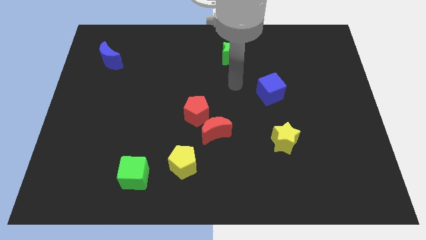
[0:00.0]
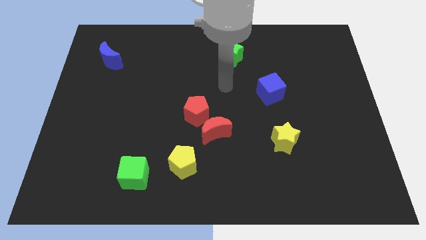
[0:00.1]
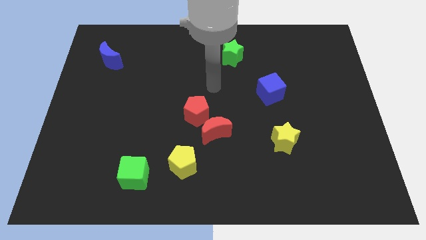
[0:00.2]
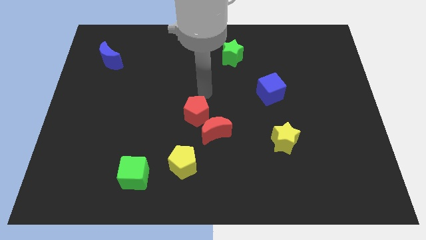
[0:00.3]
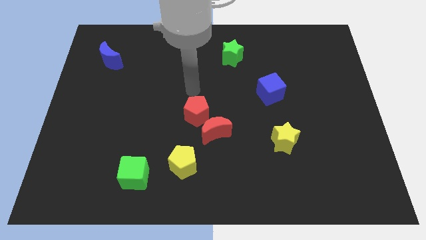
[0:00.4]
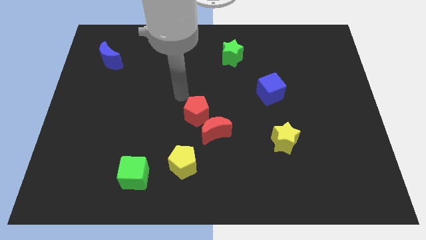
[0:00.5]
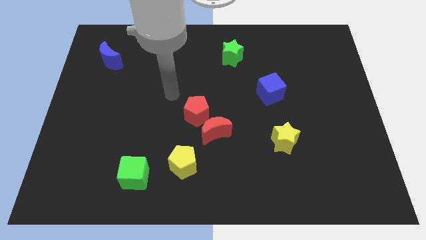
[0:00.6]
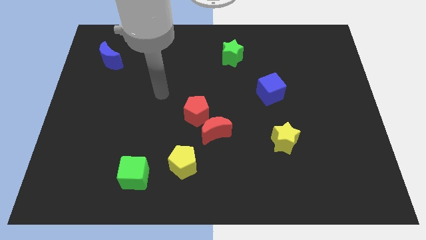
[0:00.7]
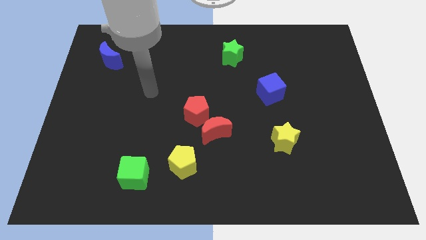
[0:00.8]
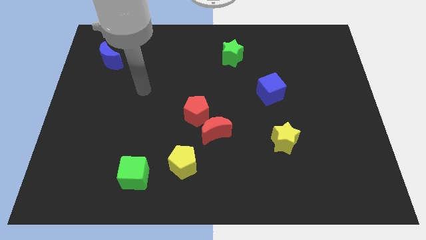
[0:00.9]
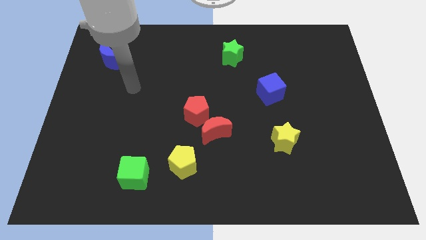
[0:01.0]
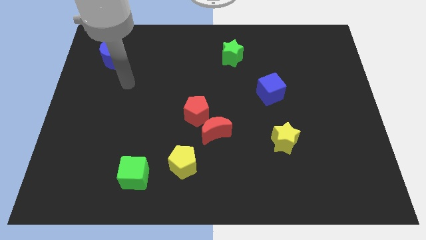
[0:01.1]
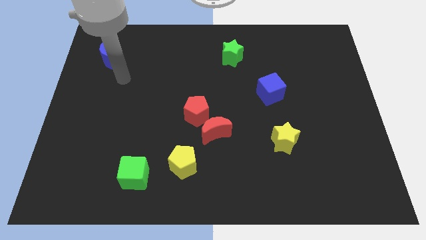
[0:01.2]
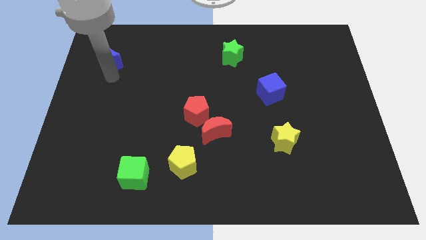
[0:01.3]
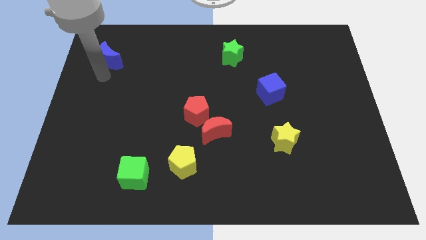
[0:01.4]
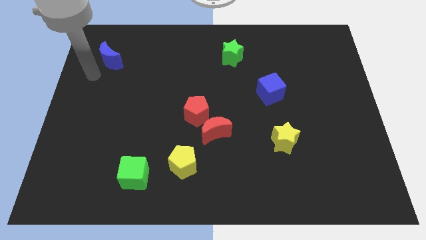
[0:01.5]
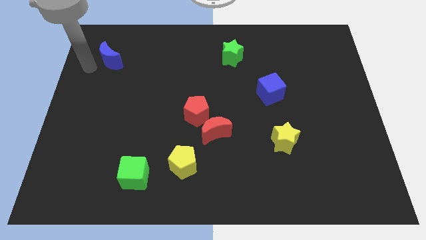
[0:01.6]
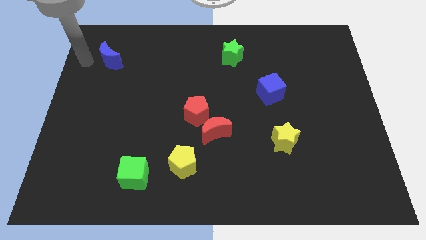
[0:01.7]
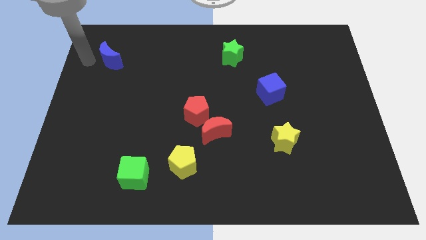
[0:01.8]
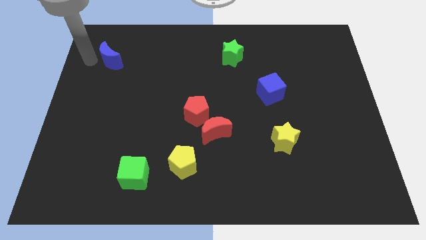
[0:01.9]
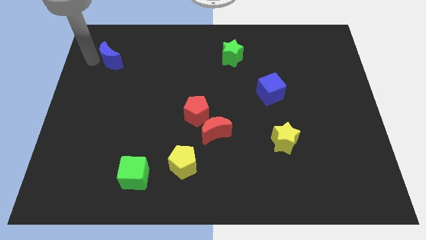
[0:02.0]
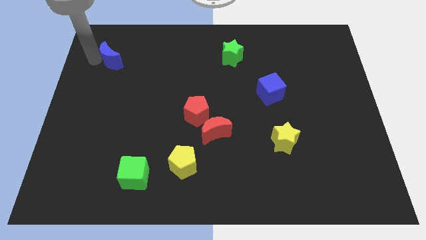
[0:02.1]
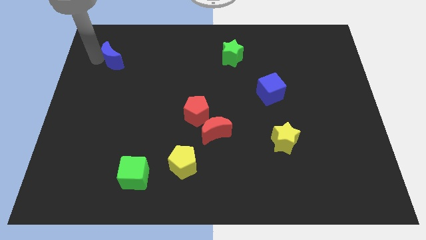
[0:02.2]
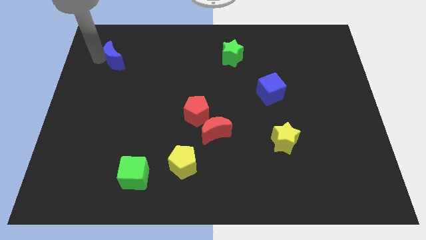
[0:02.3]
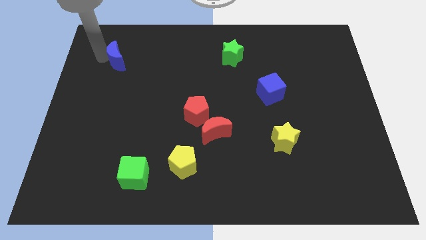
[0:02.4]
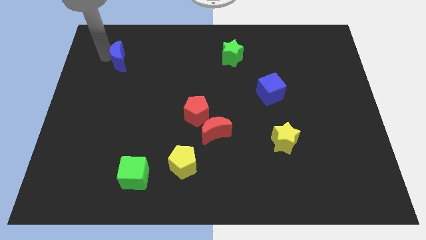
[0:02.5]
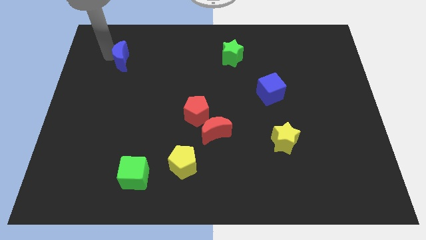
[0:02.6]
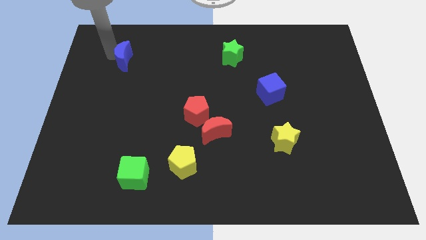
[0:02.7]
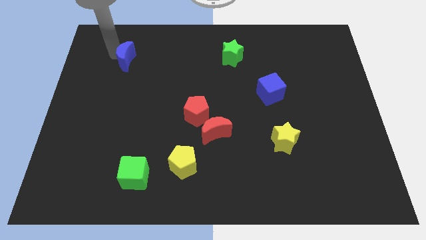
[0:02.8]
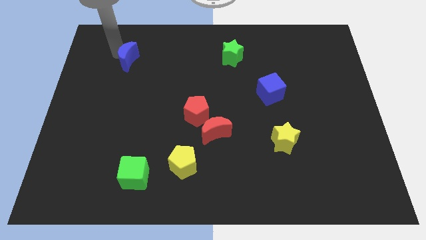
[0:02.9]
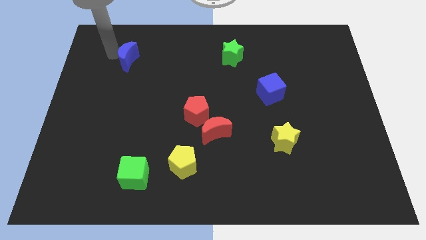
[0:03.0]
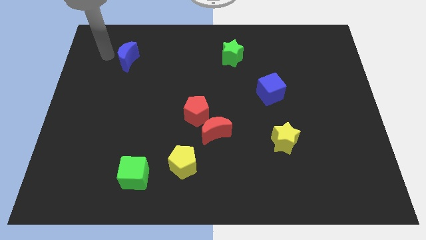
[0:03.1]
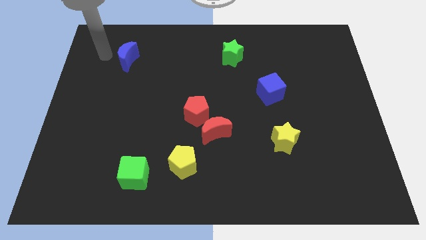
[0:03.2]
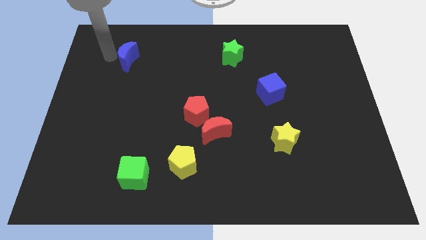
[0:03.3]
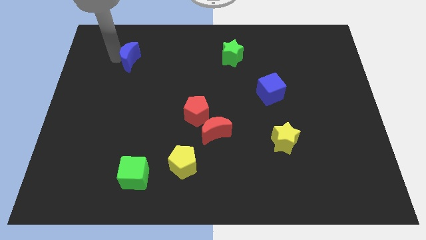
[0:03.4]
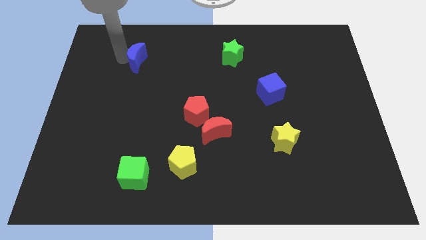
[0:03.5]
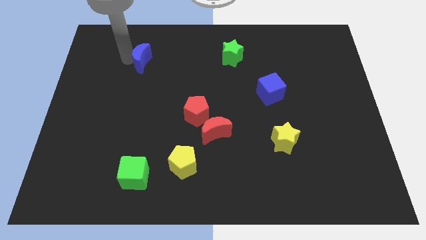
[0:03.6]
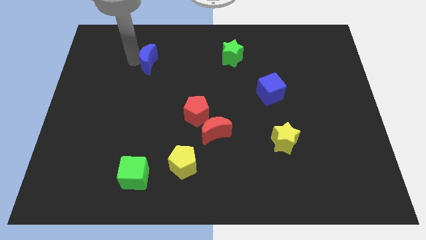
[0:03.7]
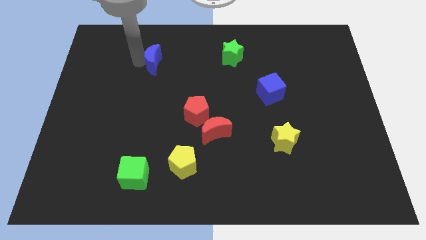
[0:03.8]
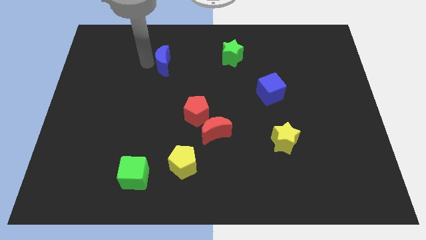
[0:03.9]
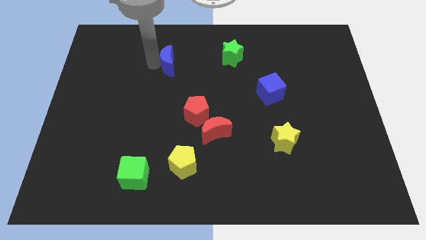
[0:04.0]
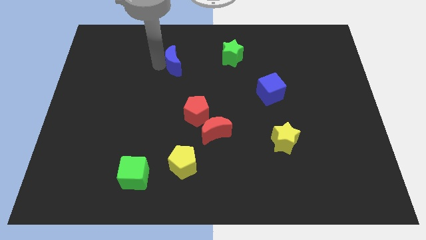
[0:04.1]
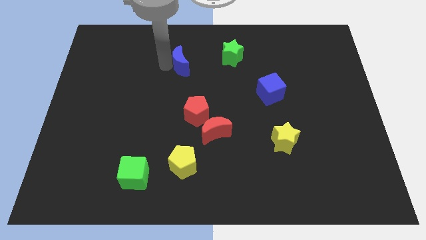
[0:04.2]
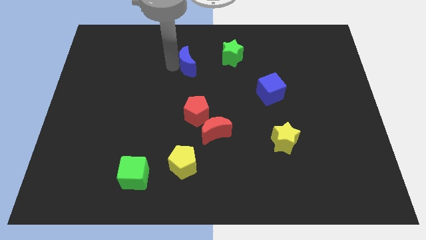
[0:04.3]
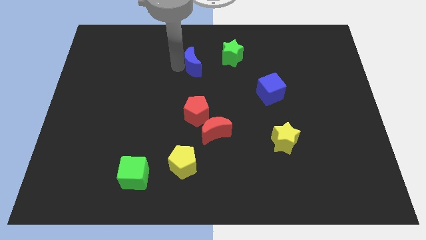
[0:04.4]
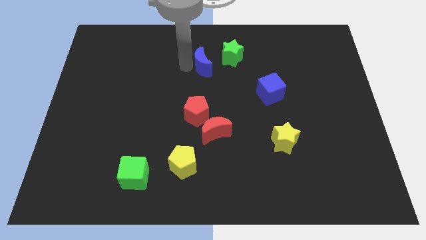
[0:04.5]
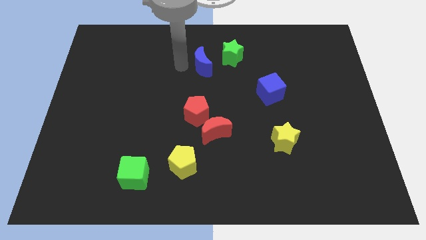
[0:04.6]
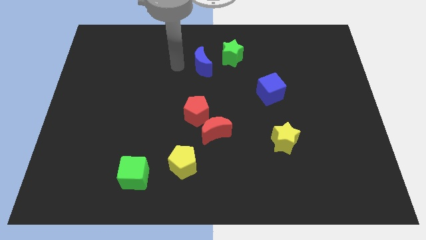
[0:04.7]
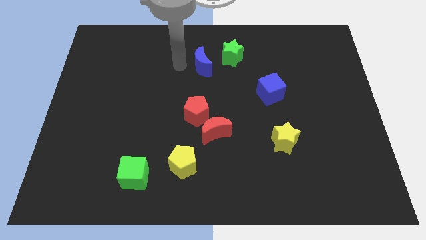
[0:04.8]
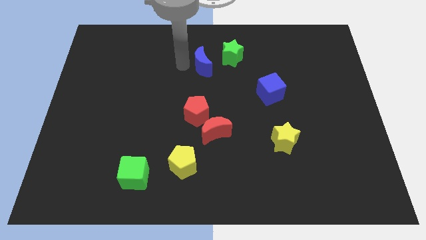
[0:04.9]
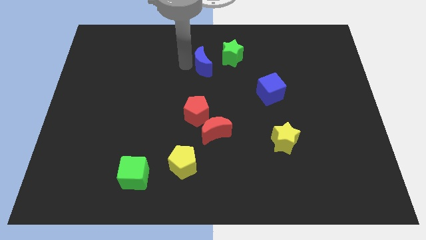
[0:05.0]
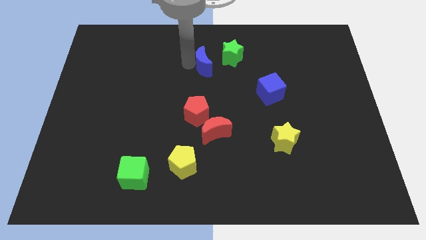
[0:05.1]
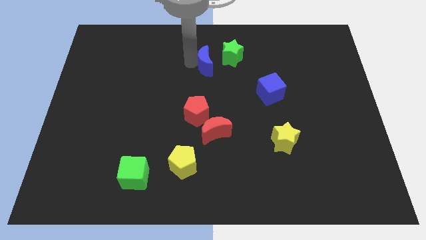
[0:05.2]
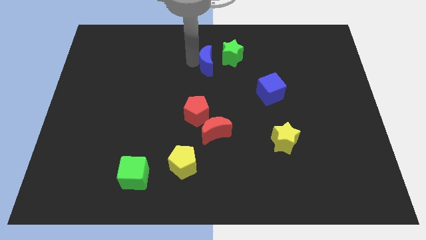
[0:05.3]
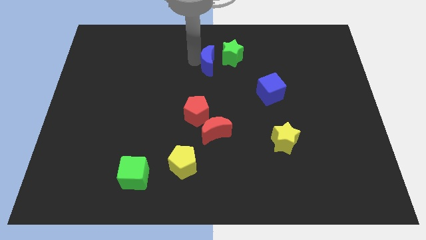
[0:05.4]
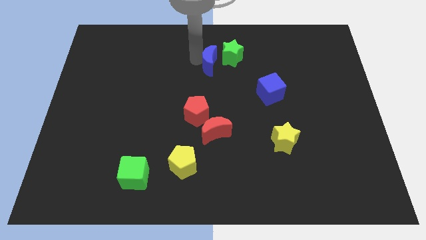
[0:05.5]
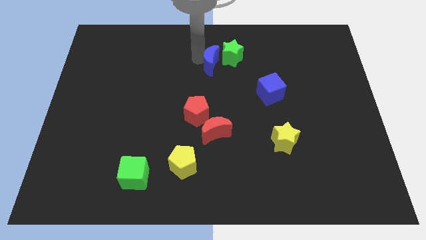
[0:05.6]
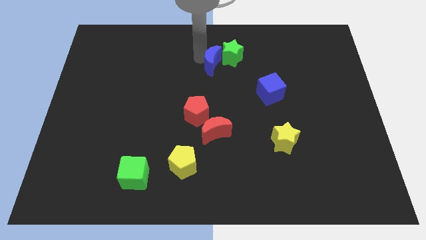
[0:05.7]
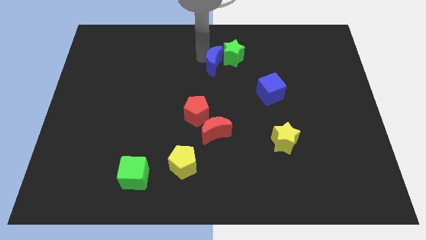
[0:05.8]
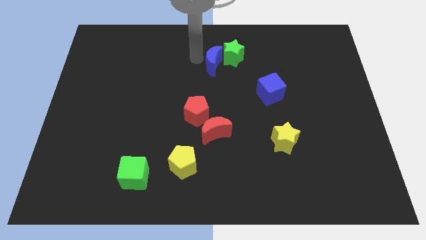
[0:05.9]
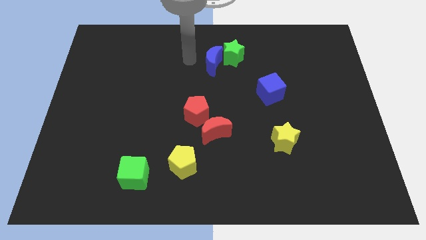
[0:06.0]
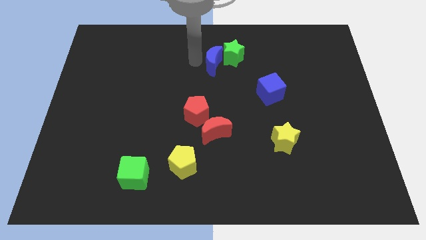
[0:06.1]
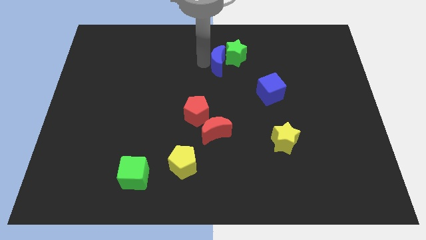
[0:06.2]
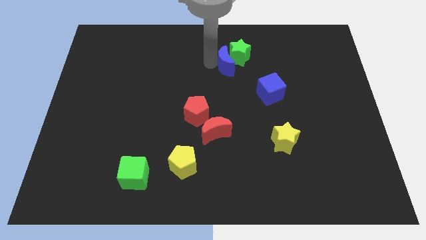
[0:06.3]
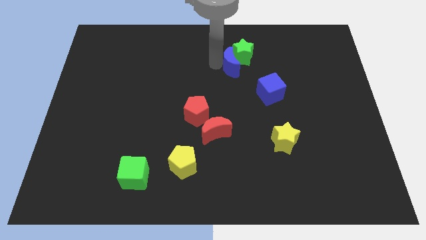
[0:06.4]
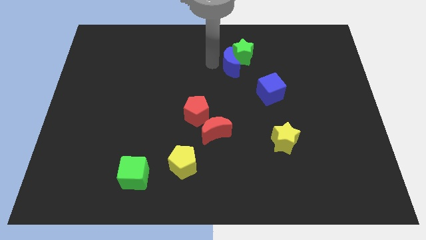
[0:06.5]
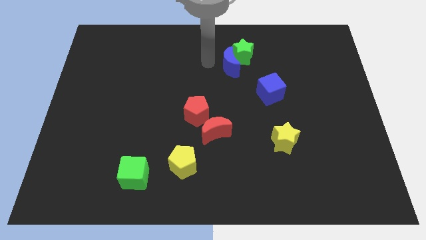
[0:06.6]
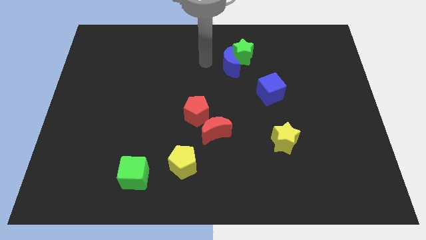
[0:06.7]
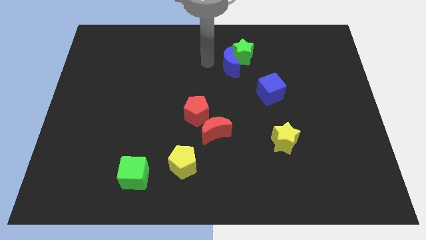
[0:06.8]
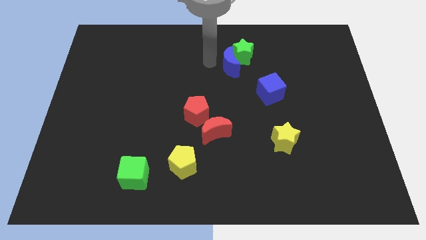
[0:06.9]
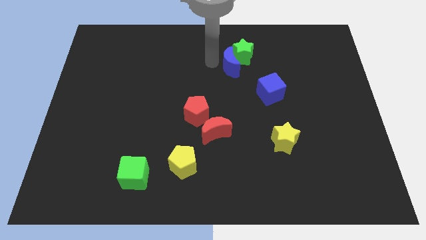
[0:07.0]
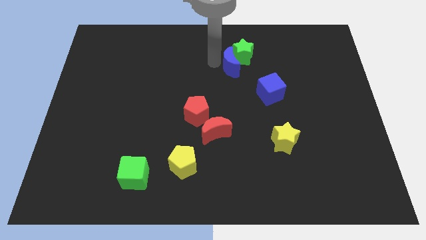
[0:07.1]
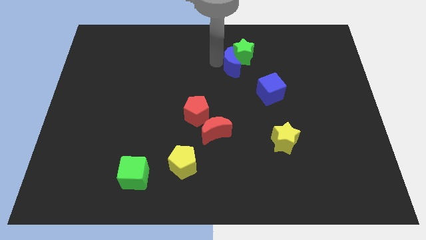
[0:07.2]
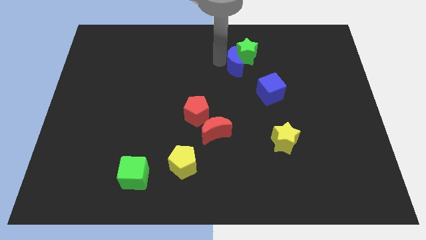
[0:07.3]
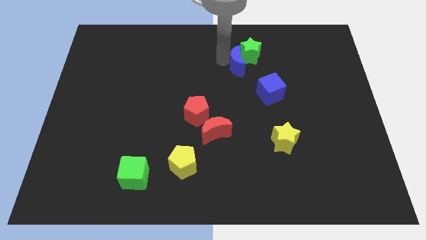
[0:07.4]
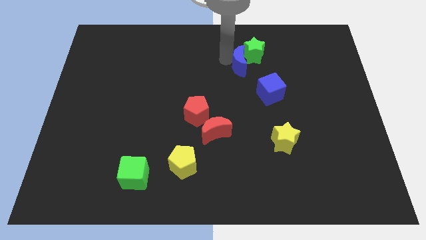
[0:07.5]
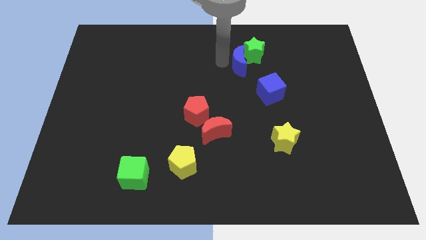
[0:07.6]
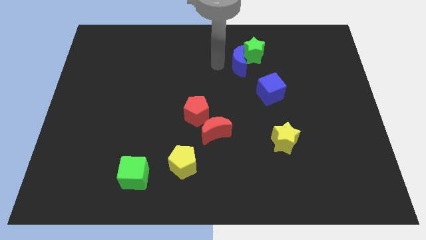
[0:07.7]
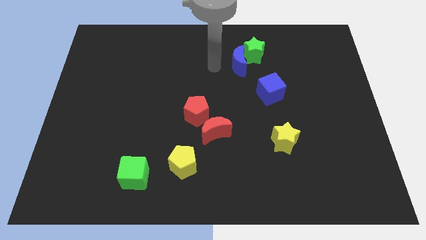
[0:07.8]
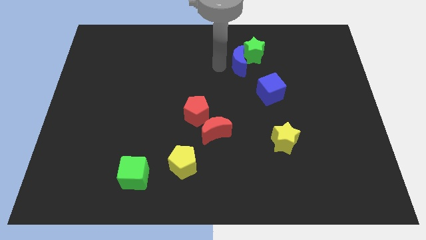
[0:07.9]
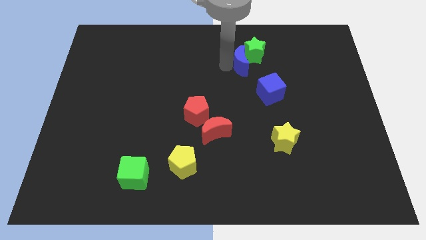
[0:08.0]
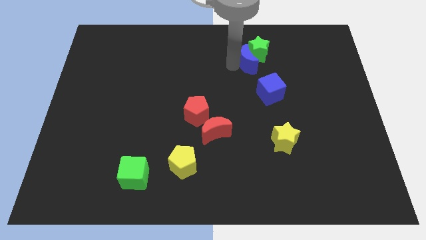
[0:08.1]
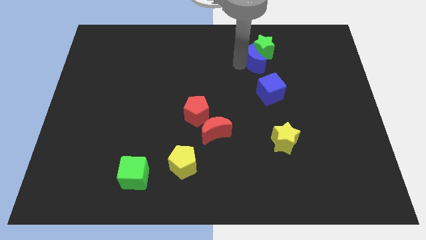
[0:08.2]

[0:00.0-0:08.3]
move the blue moon to the top side of the blue cube
